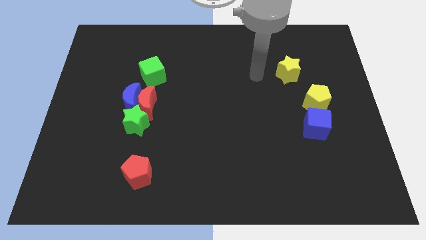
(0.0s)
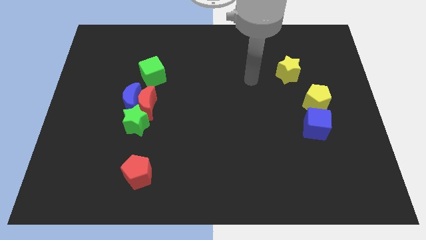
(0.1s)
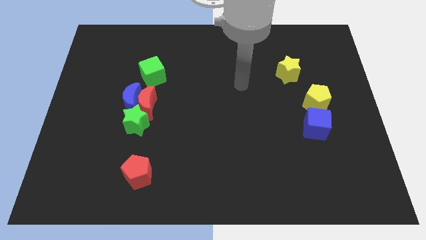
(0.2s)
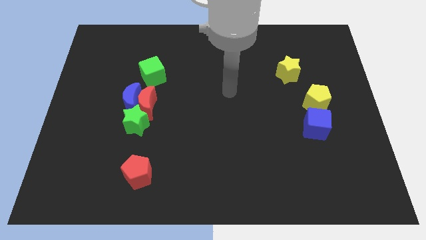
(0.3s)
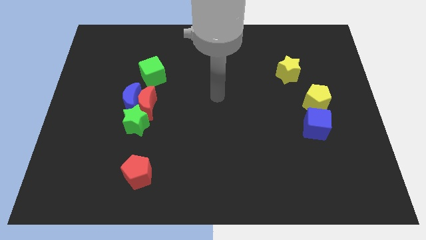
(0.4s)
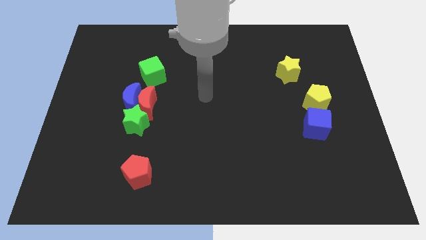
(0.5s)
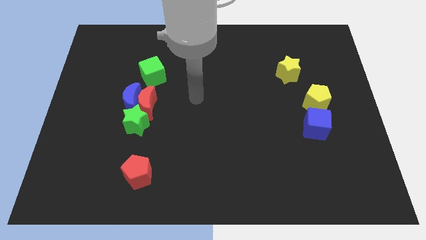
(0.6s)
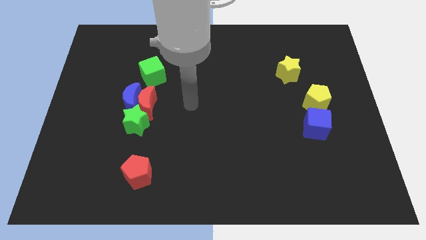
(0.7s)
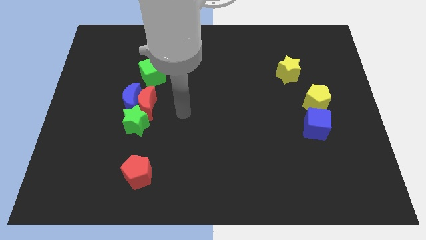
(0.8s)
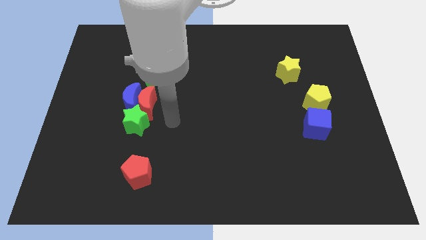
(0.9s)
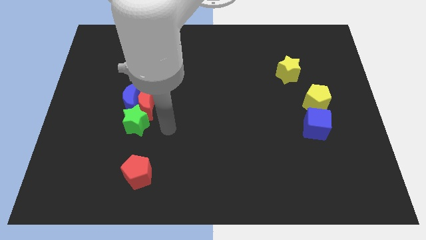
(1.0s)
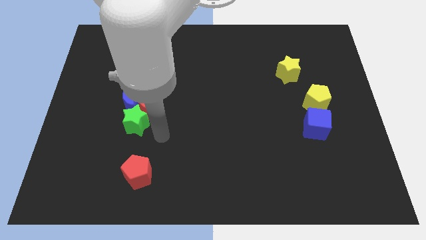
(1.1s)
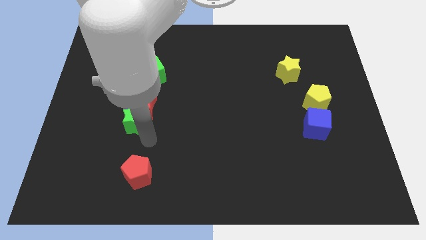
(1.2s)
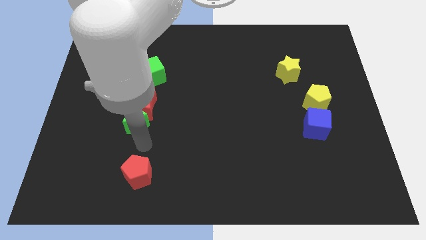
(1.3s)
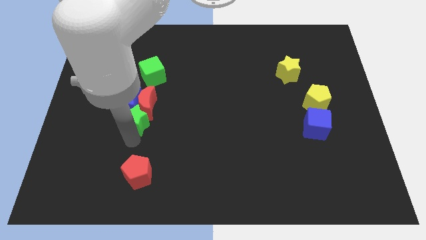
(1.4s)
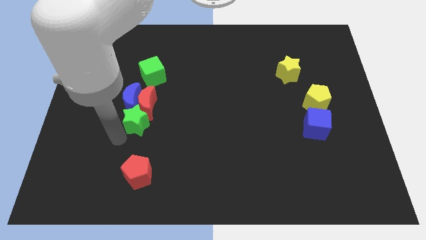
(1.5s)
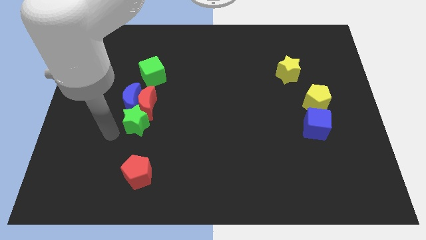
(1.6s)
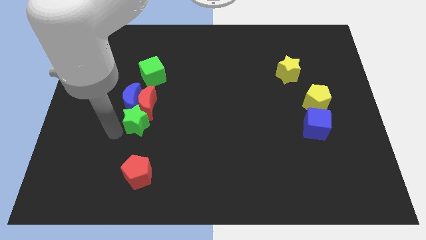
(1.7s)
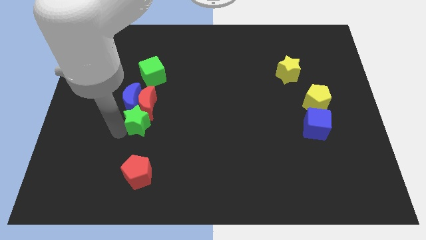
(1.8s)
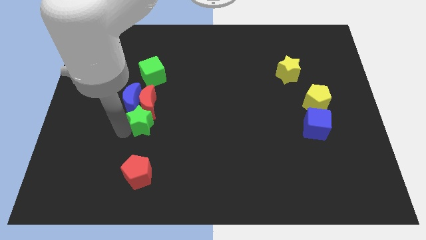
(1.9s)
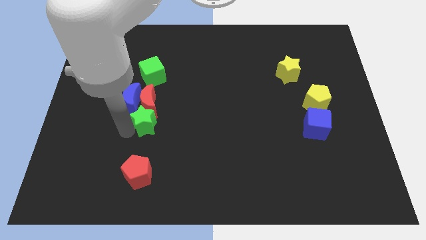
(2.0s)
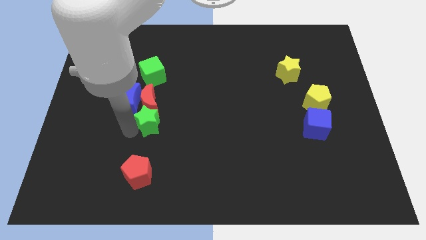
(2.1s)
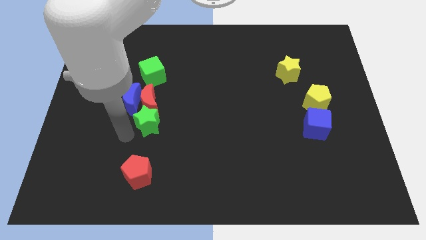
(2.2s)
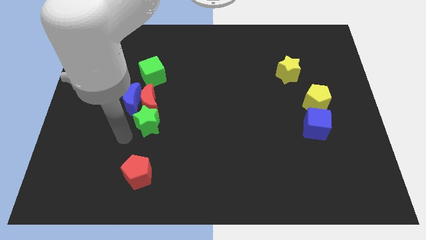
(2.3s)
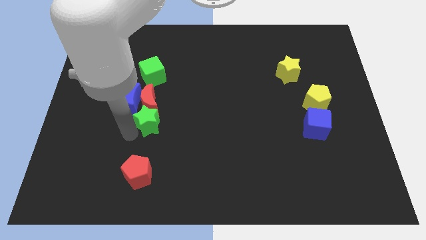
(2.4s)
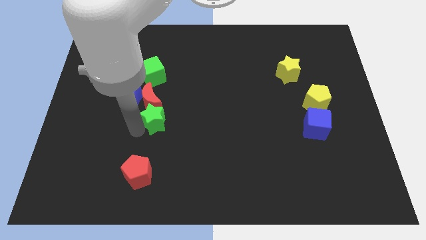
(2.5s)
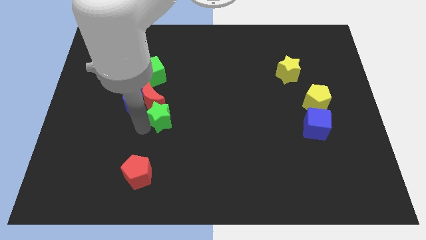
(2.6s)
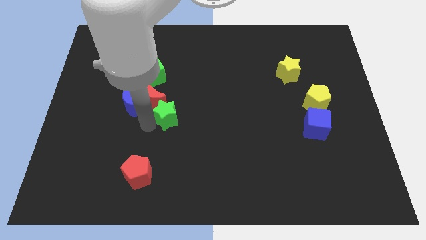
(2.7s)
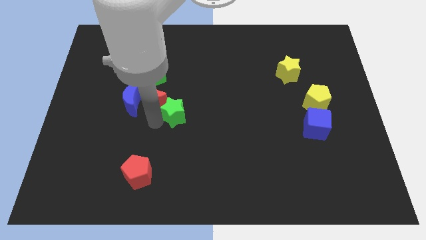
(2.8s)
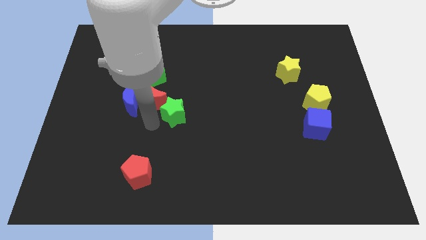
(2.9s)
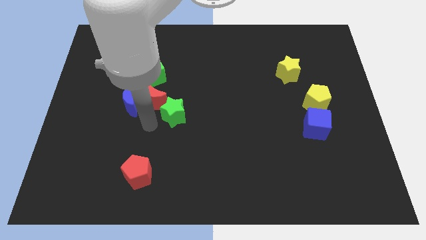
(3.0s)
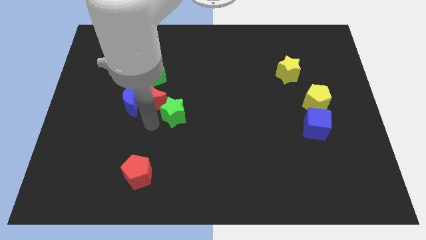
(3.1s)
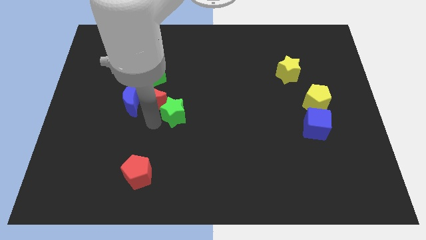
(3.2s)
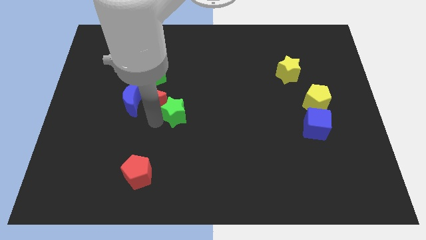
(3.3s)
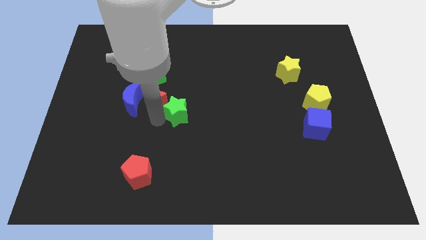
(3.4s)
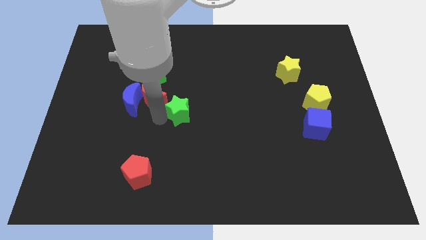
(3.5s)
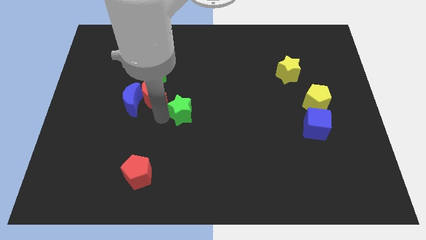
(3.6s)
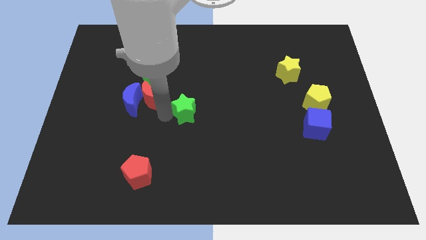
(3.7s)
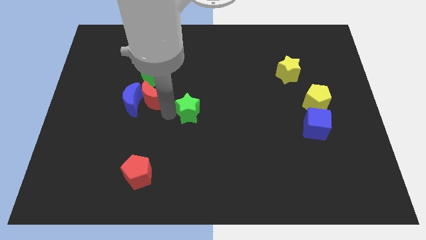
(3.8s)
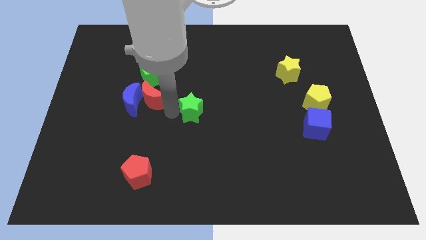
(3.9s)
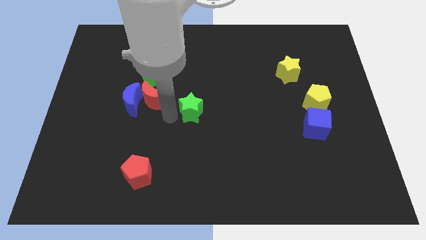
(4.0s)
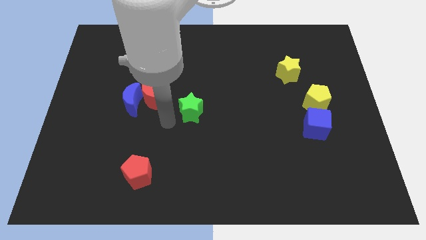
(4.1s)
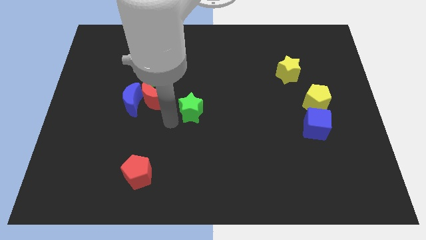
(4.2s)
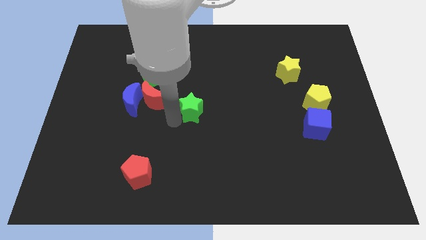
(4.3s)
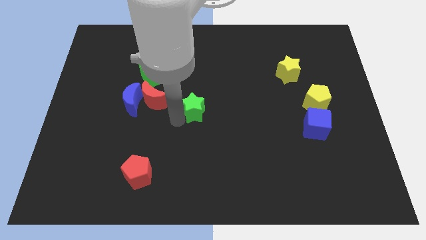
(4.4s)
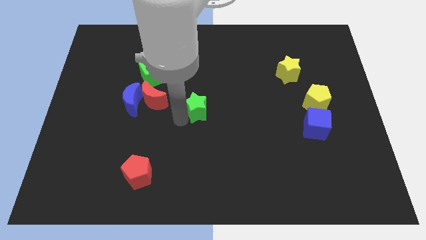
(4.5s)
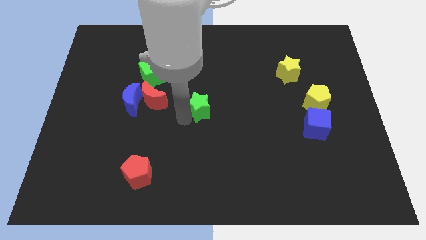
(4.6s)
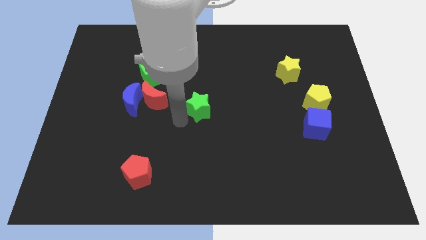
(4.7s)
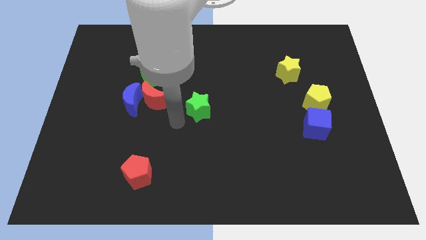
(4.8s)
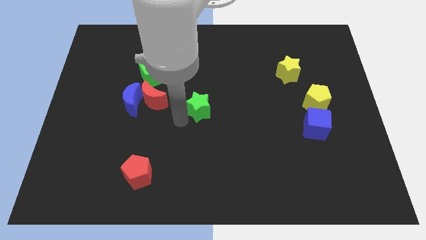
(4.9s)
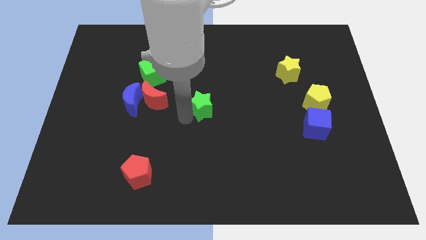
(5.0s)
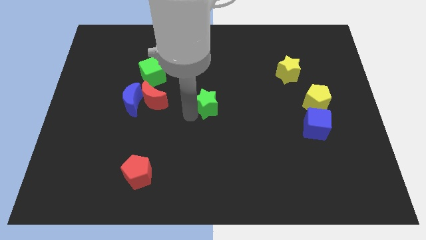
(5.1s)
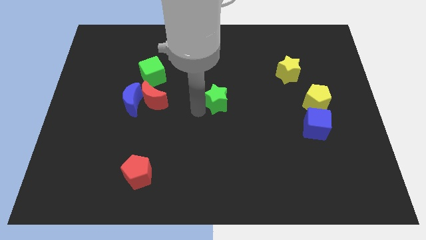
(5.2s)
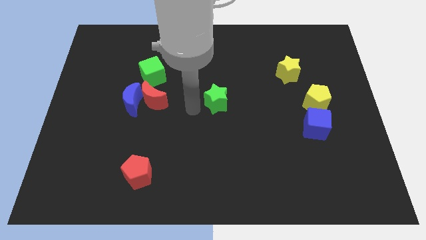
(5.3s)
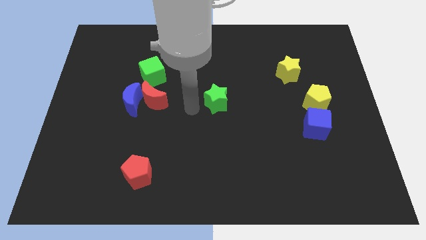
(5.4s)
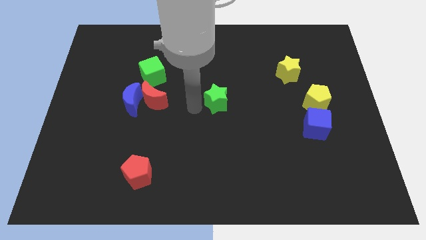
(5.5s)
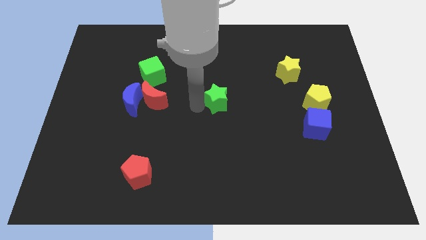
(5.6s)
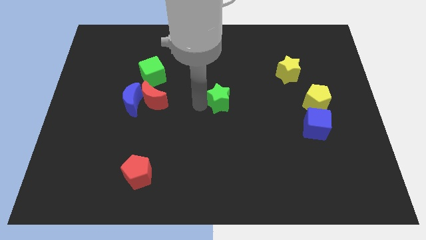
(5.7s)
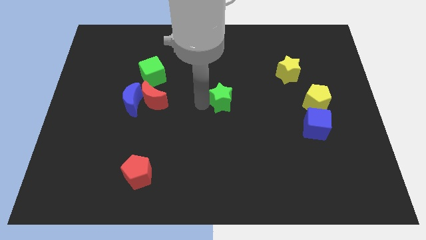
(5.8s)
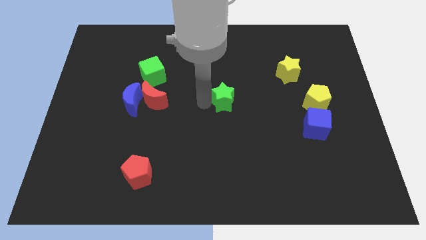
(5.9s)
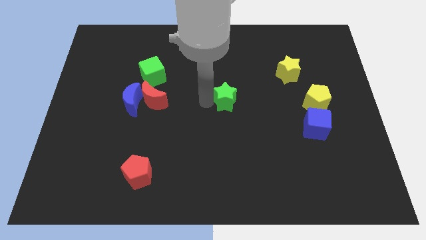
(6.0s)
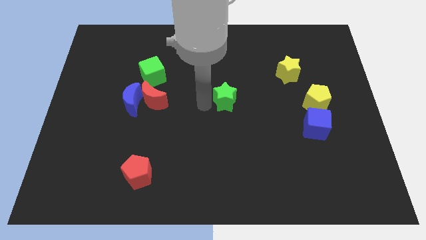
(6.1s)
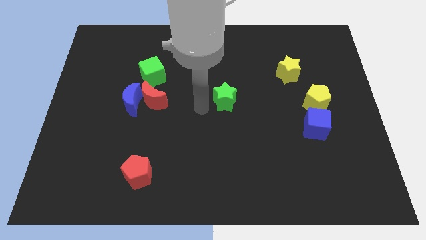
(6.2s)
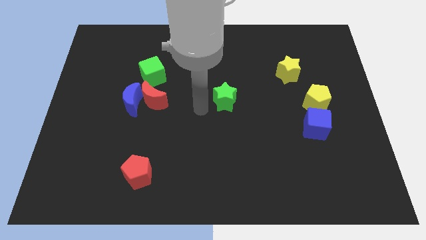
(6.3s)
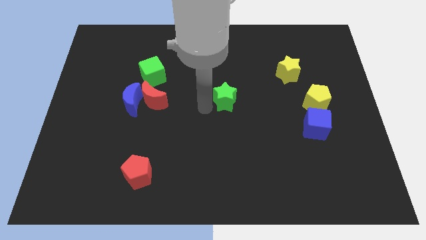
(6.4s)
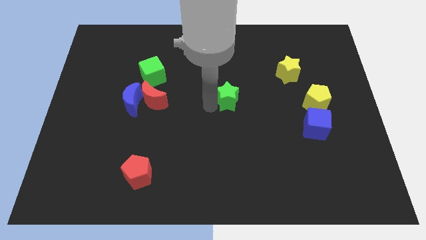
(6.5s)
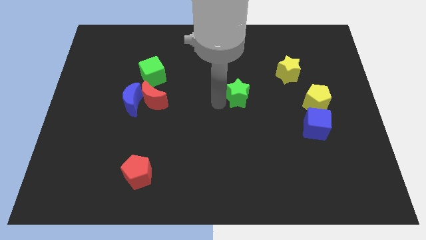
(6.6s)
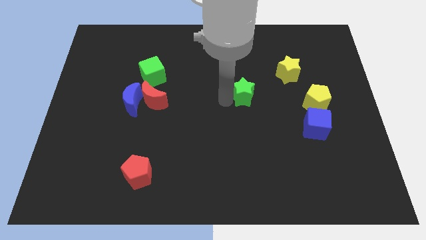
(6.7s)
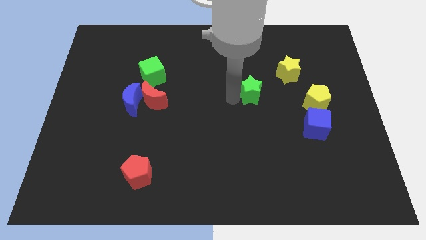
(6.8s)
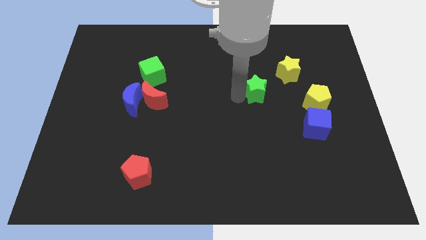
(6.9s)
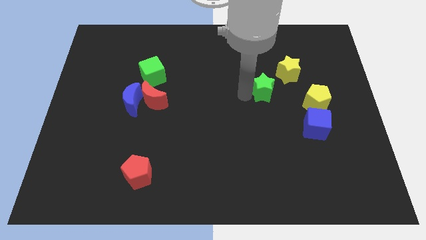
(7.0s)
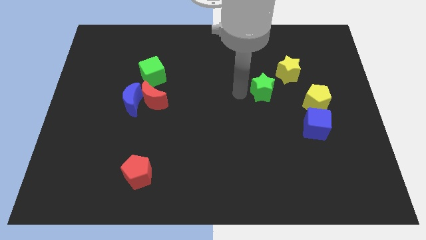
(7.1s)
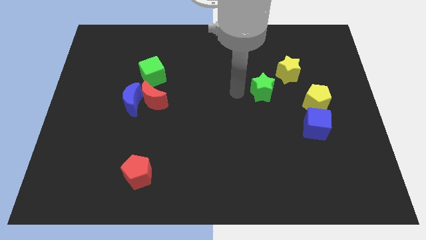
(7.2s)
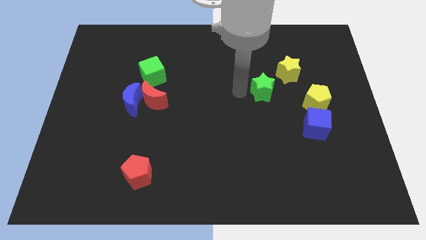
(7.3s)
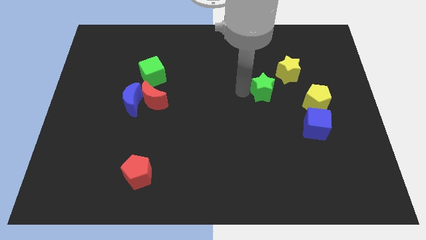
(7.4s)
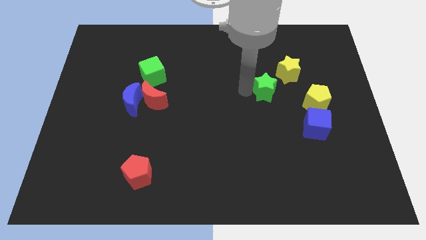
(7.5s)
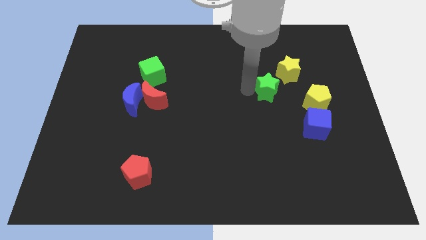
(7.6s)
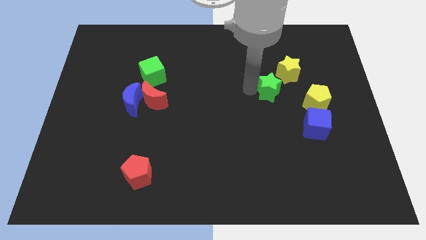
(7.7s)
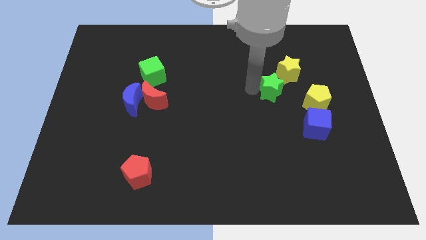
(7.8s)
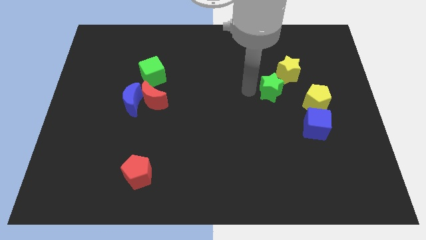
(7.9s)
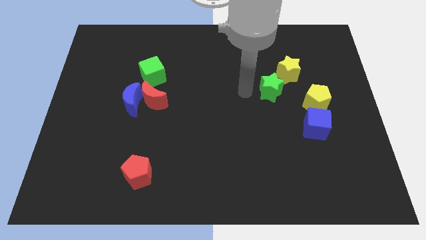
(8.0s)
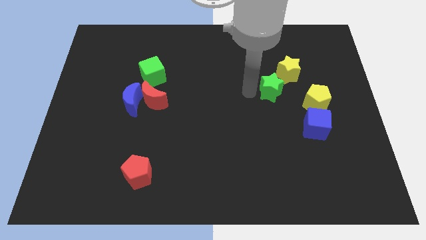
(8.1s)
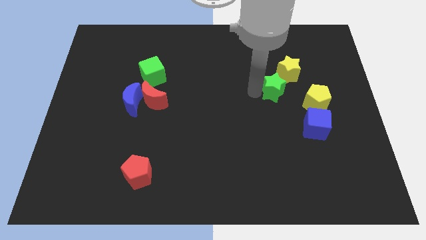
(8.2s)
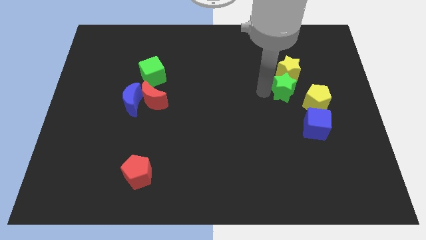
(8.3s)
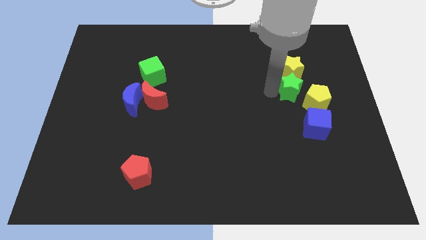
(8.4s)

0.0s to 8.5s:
move the green star to the bottom right side of the yellow star
